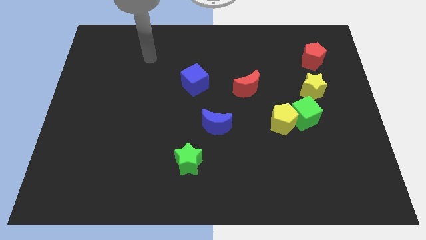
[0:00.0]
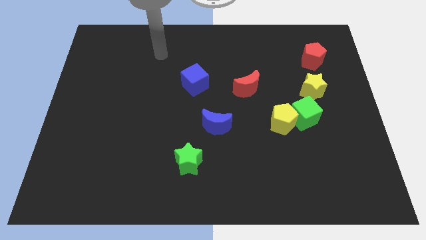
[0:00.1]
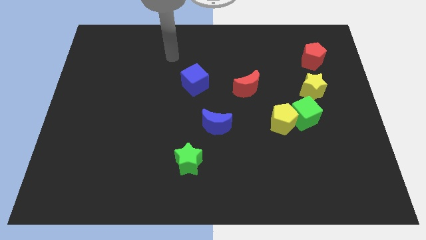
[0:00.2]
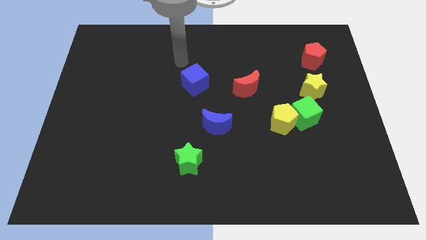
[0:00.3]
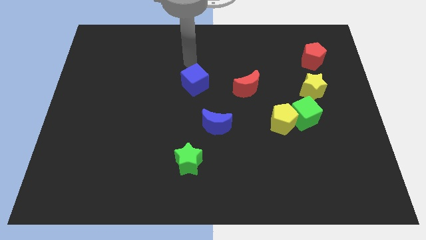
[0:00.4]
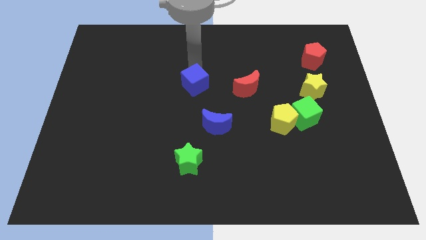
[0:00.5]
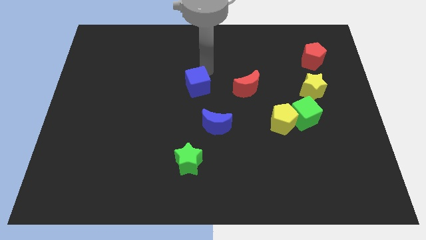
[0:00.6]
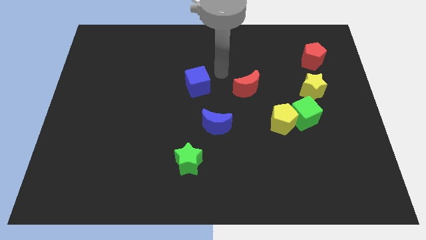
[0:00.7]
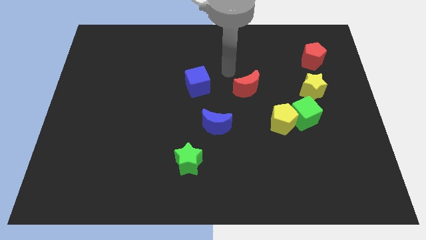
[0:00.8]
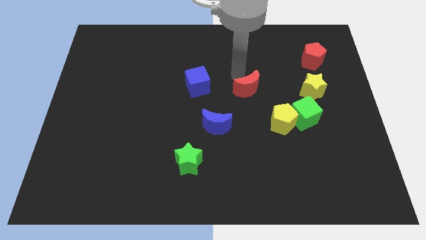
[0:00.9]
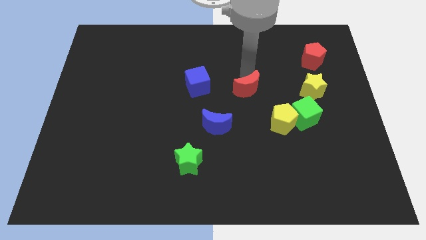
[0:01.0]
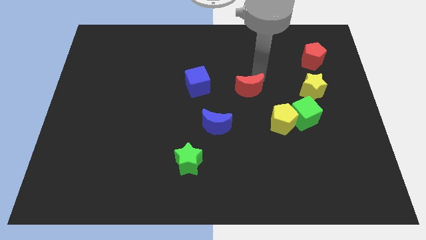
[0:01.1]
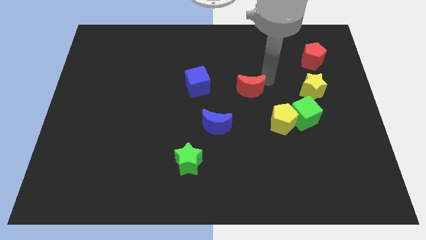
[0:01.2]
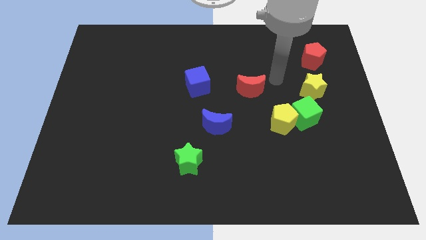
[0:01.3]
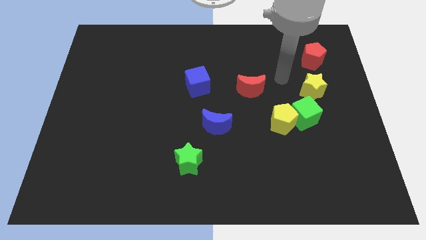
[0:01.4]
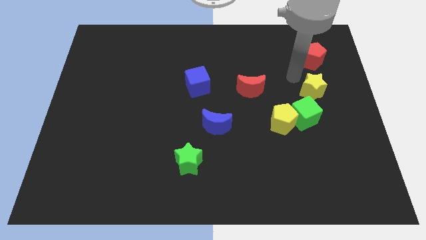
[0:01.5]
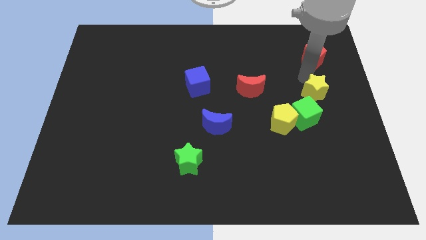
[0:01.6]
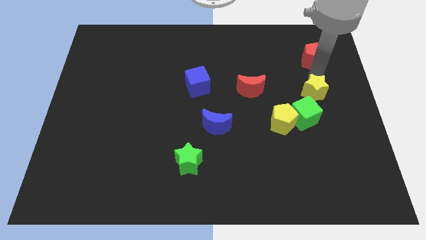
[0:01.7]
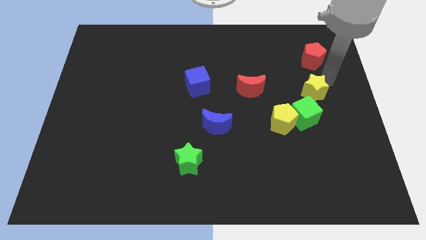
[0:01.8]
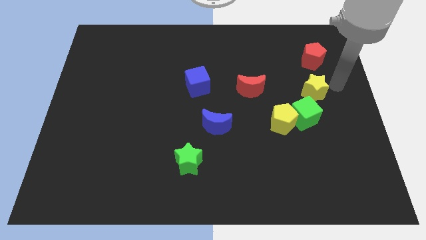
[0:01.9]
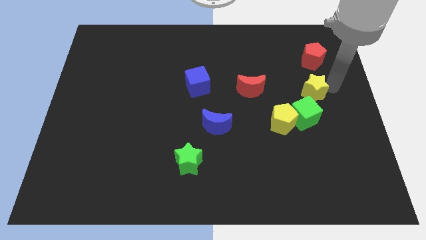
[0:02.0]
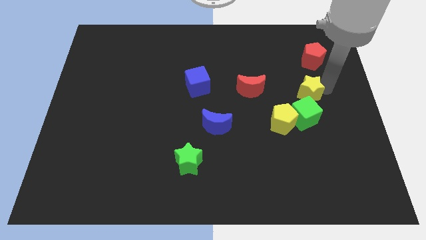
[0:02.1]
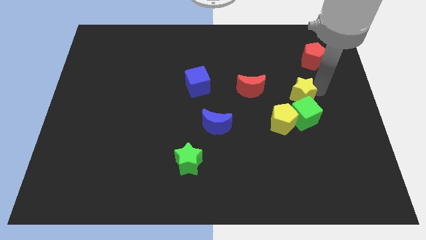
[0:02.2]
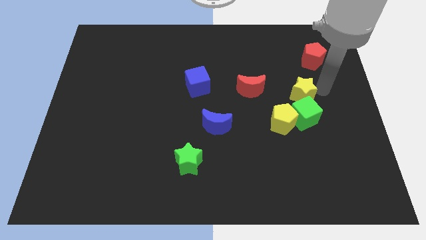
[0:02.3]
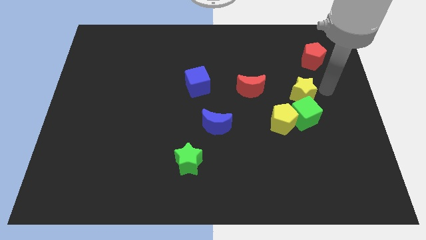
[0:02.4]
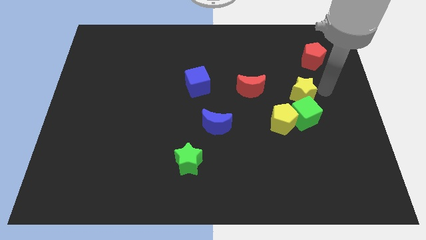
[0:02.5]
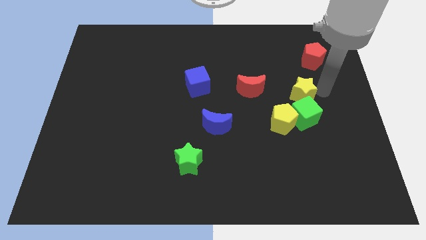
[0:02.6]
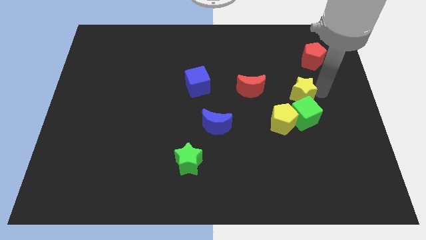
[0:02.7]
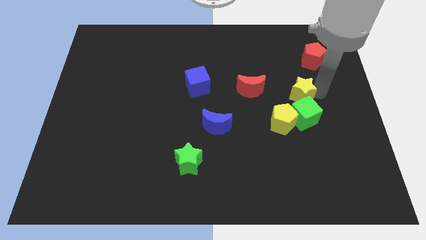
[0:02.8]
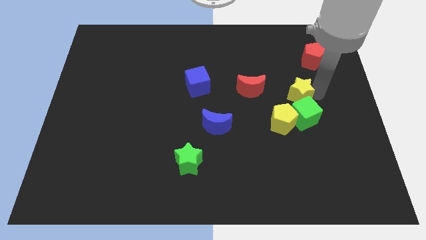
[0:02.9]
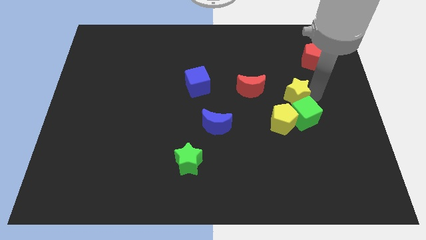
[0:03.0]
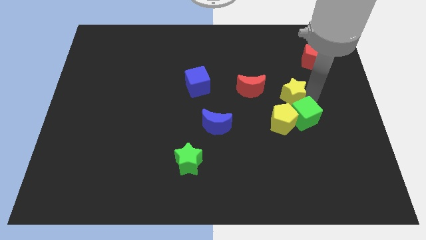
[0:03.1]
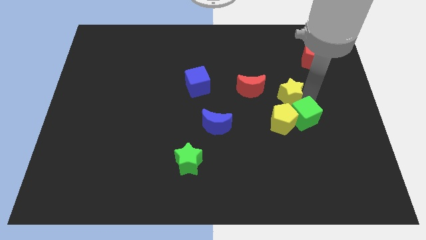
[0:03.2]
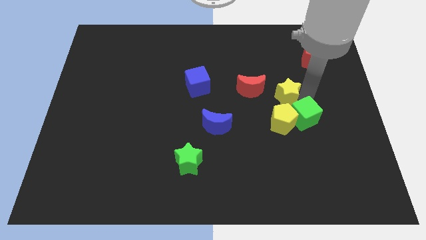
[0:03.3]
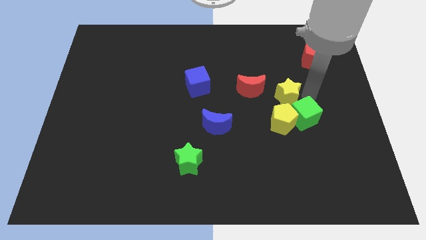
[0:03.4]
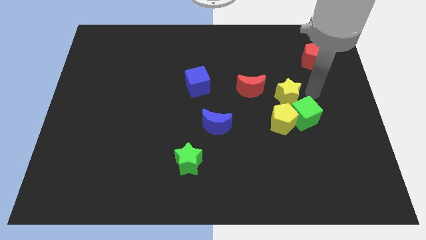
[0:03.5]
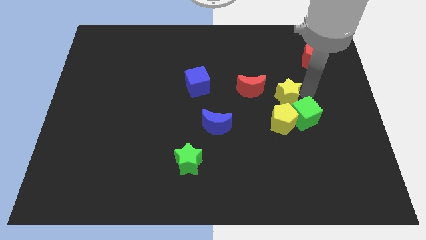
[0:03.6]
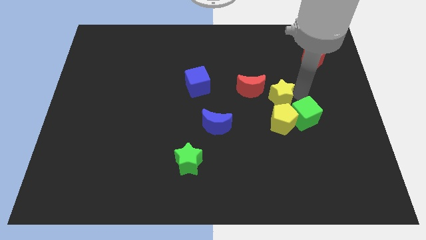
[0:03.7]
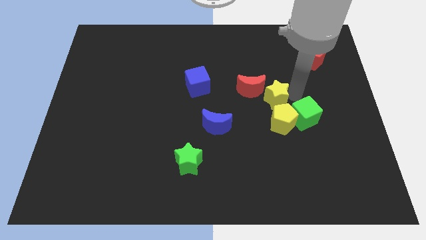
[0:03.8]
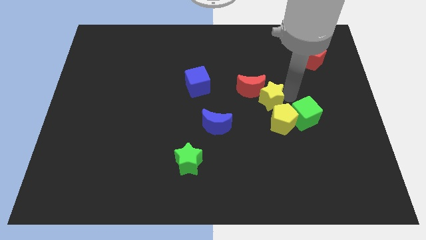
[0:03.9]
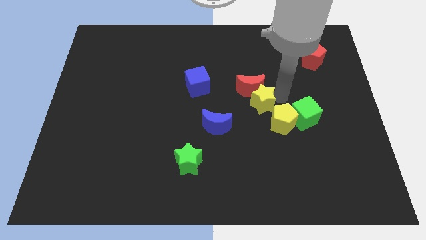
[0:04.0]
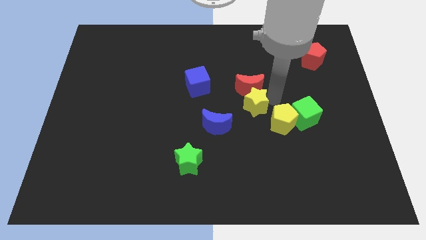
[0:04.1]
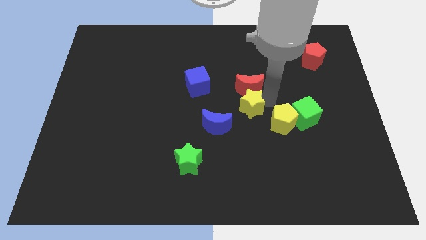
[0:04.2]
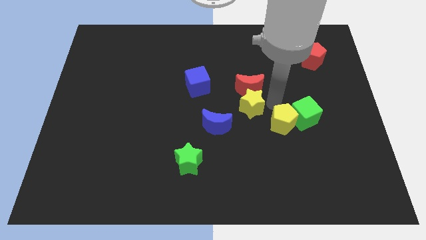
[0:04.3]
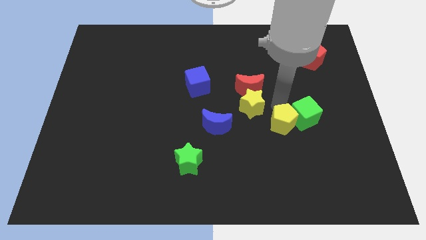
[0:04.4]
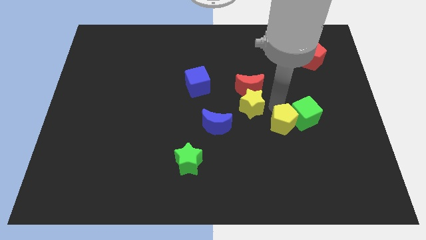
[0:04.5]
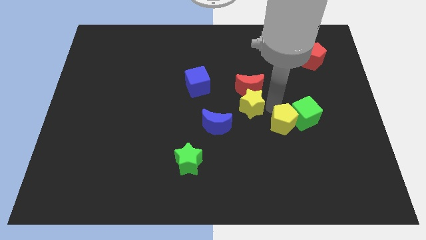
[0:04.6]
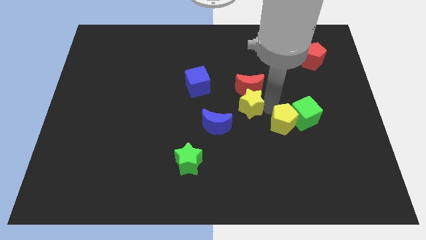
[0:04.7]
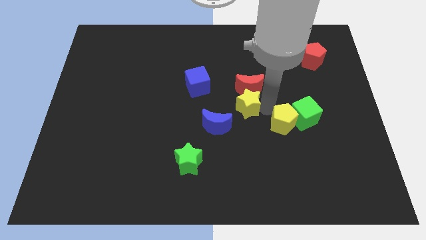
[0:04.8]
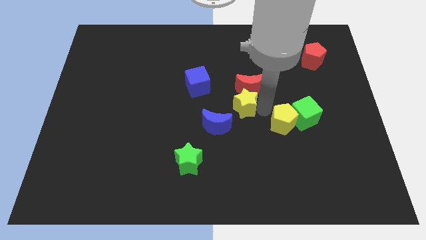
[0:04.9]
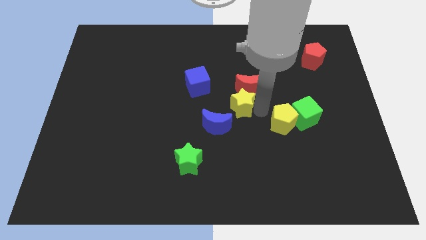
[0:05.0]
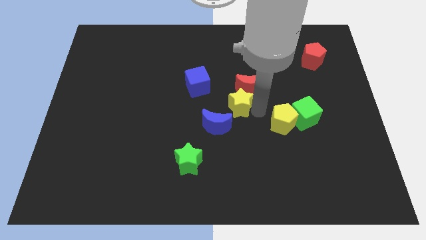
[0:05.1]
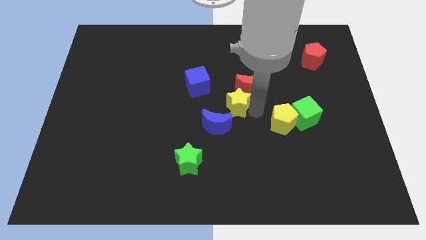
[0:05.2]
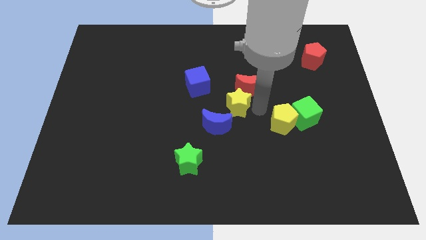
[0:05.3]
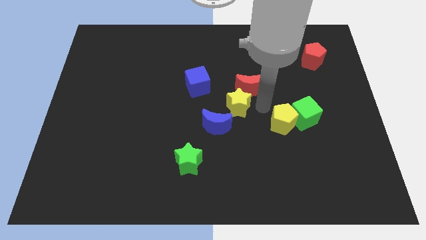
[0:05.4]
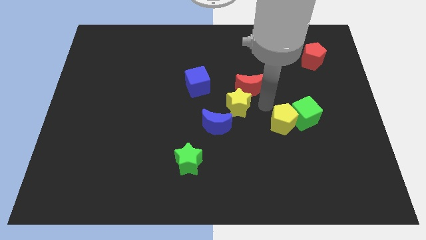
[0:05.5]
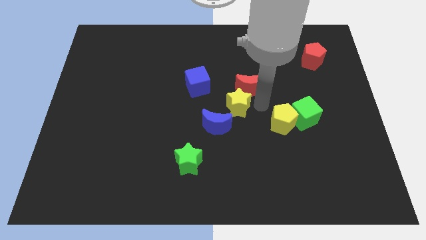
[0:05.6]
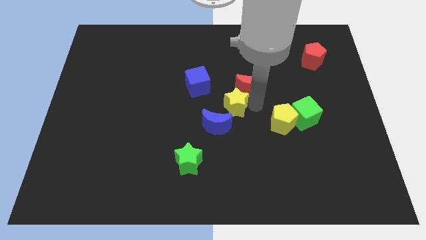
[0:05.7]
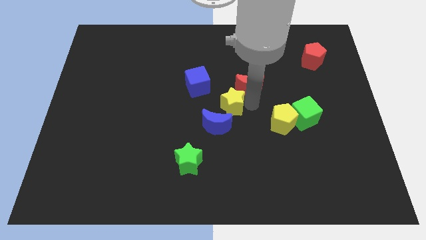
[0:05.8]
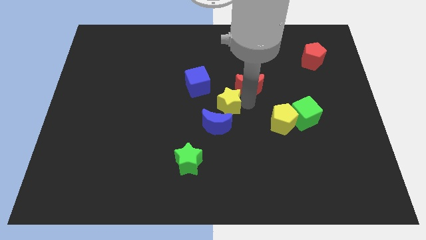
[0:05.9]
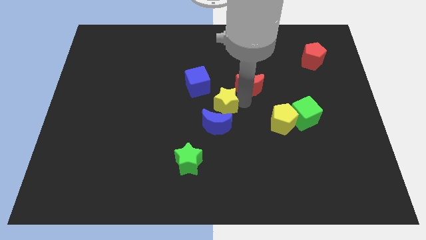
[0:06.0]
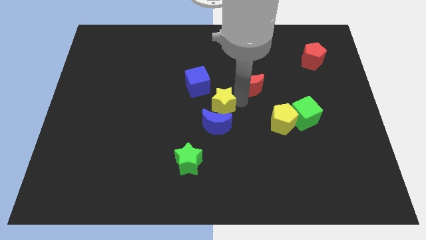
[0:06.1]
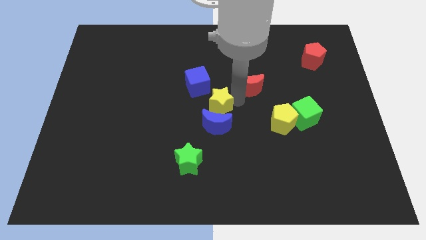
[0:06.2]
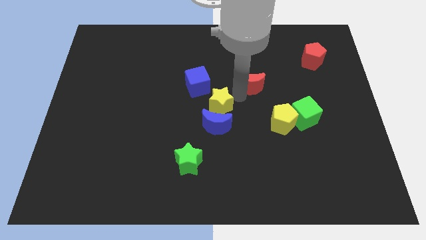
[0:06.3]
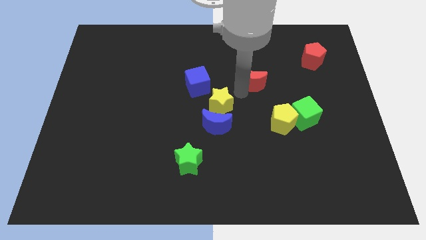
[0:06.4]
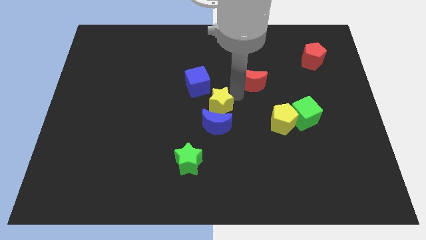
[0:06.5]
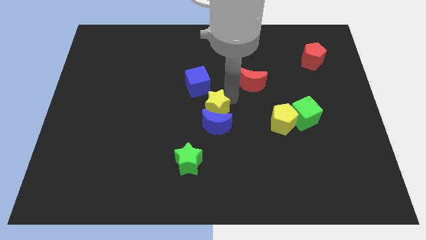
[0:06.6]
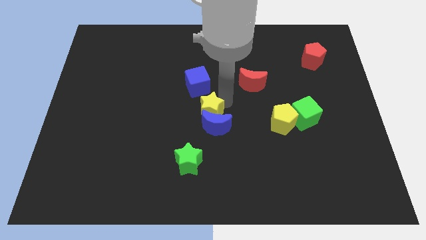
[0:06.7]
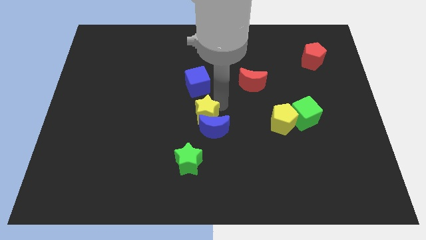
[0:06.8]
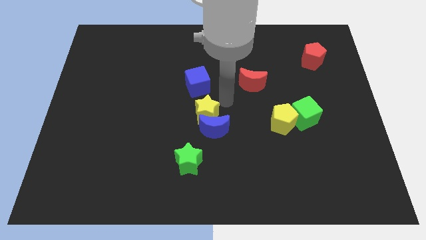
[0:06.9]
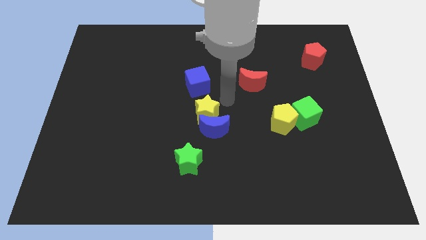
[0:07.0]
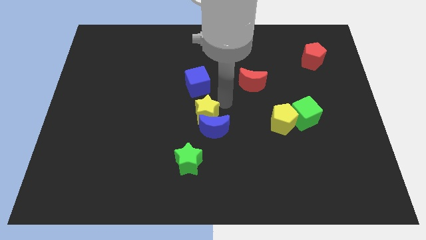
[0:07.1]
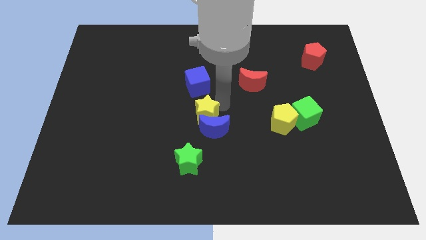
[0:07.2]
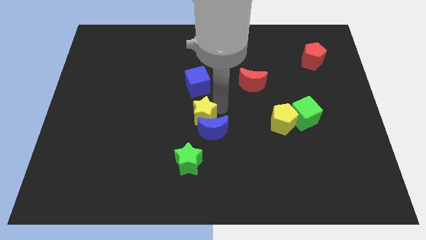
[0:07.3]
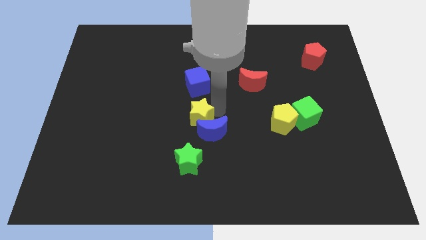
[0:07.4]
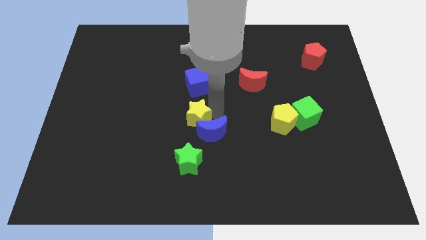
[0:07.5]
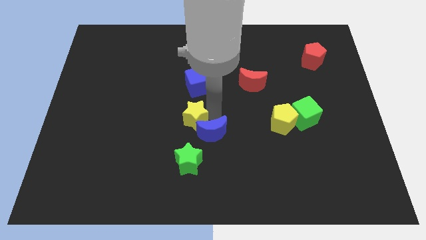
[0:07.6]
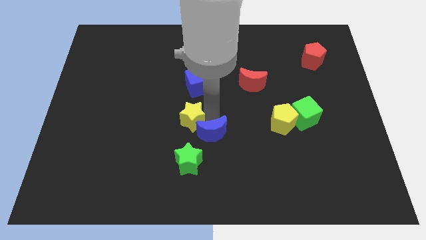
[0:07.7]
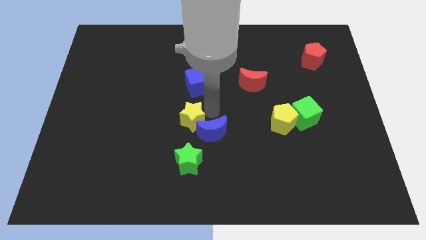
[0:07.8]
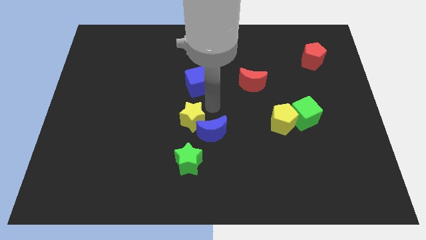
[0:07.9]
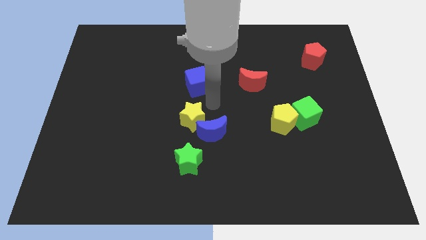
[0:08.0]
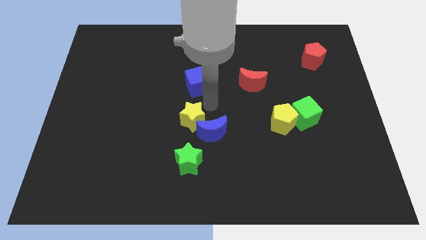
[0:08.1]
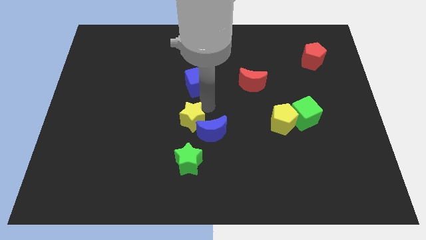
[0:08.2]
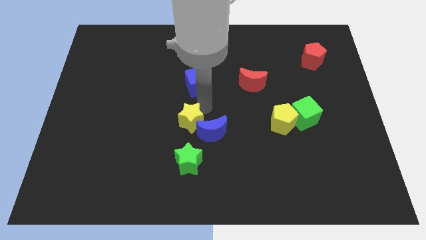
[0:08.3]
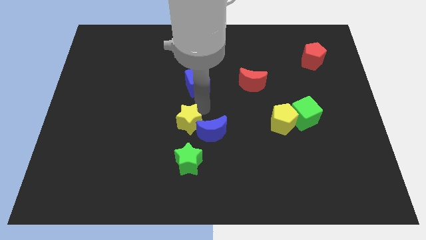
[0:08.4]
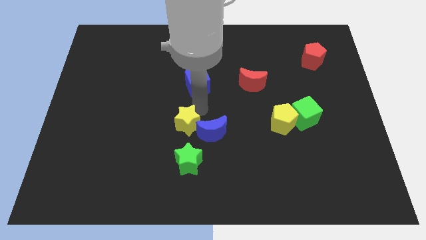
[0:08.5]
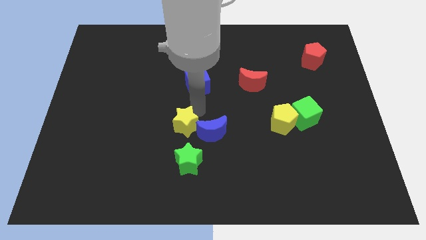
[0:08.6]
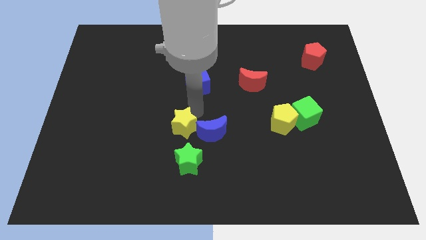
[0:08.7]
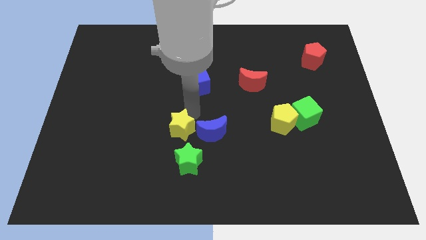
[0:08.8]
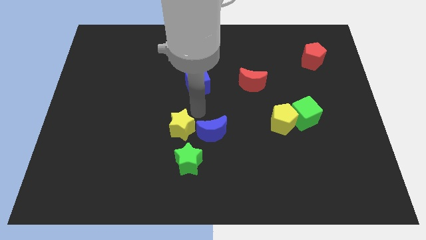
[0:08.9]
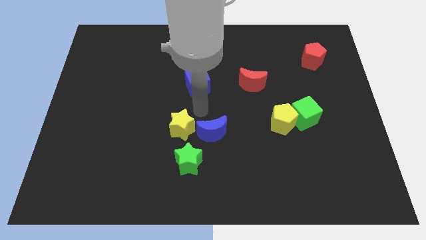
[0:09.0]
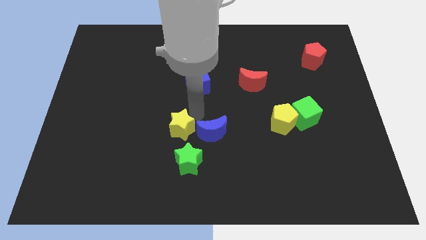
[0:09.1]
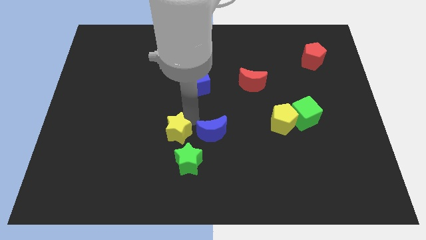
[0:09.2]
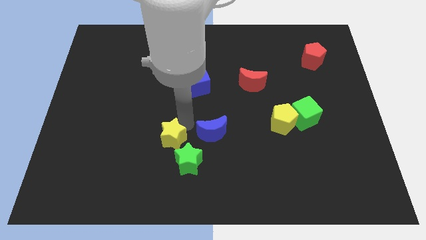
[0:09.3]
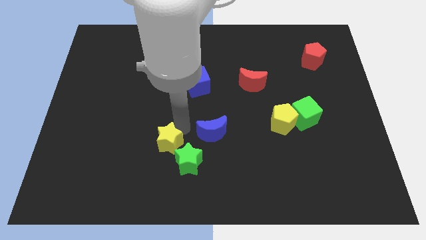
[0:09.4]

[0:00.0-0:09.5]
push the yellow star to the left of the green star
